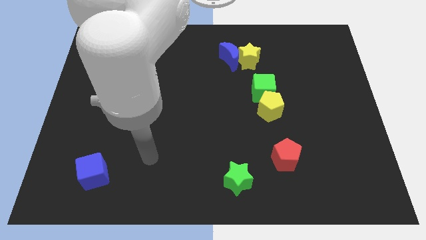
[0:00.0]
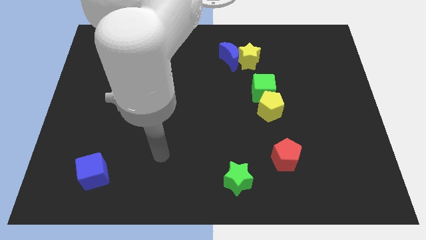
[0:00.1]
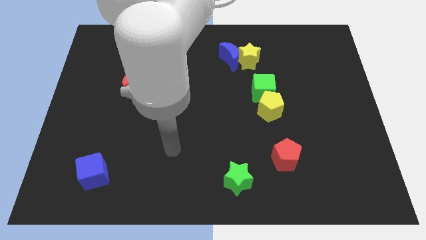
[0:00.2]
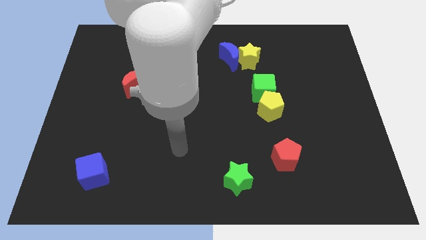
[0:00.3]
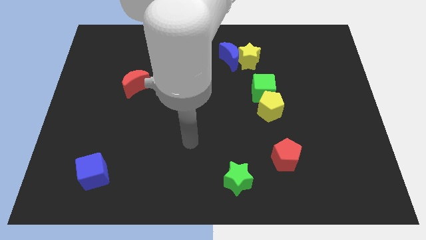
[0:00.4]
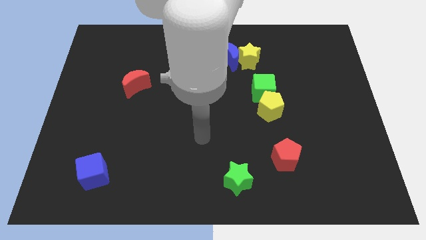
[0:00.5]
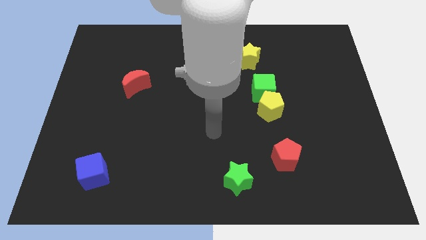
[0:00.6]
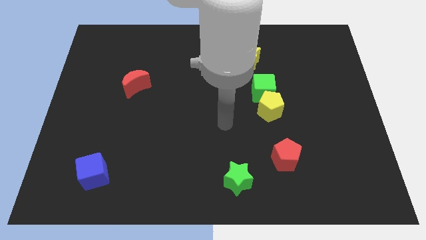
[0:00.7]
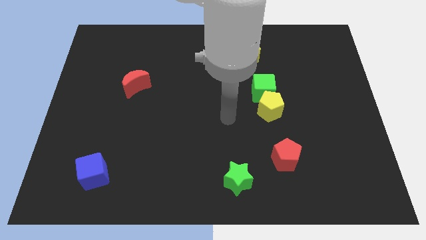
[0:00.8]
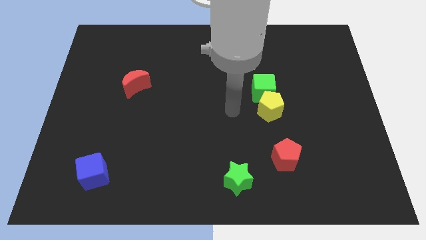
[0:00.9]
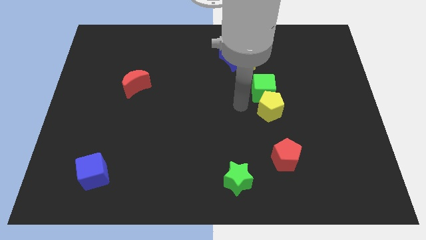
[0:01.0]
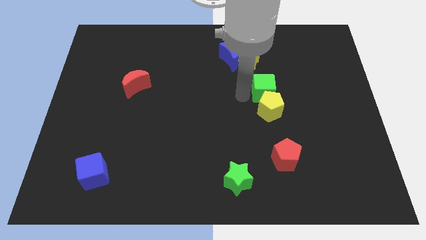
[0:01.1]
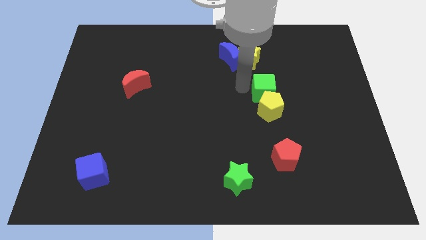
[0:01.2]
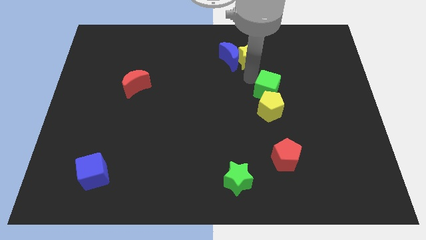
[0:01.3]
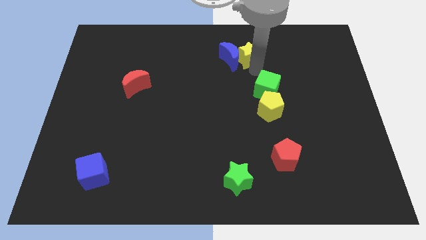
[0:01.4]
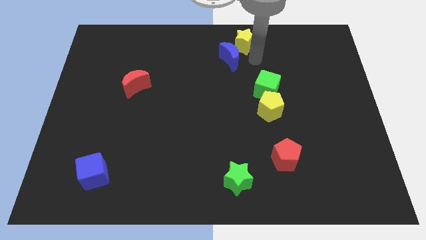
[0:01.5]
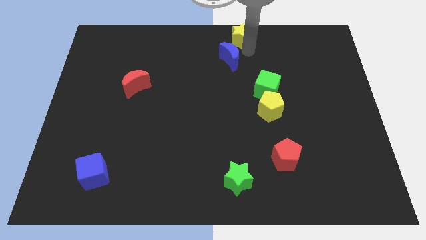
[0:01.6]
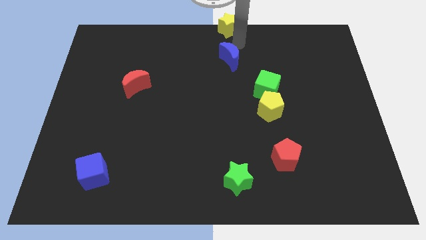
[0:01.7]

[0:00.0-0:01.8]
pull the blue moon apart from the yellow star

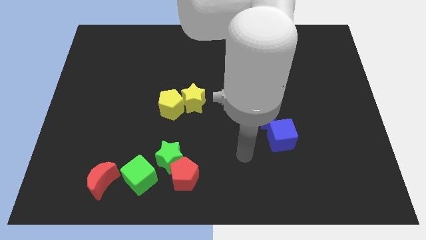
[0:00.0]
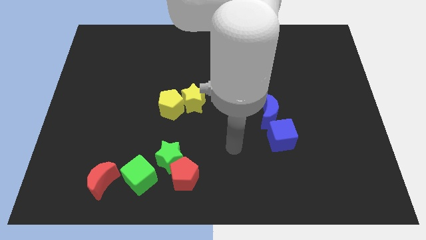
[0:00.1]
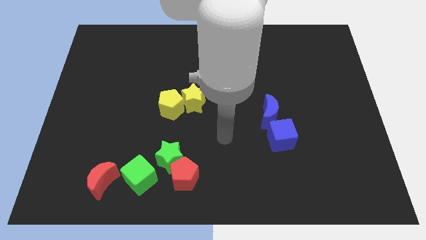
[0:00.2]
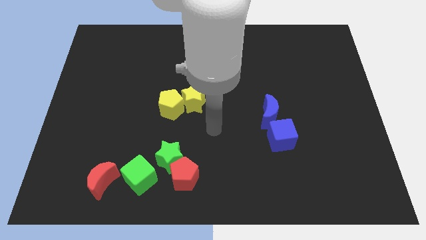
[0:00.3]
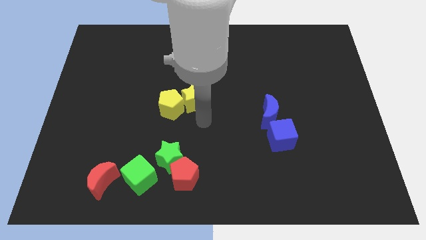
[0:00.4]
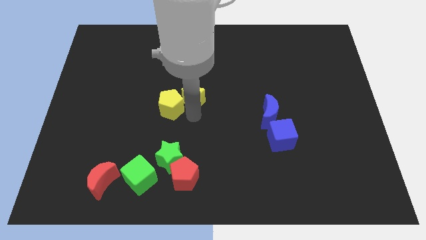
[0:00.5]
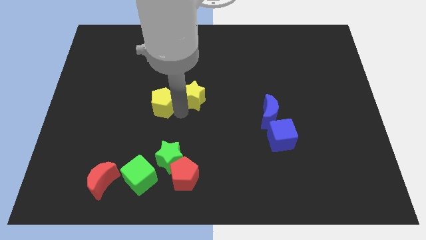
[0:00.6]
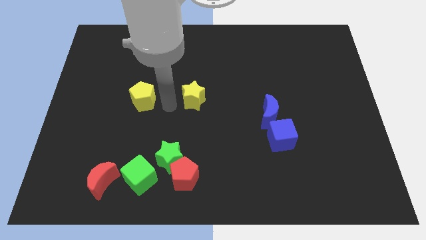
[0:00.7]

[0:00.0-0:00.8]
separate the yellow star from the yellow pentagon

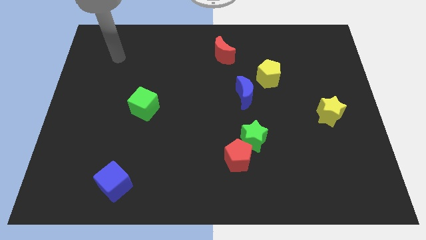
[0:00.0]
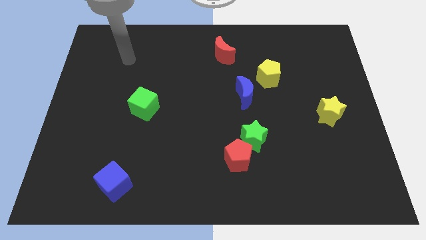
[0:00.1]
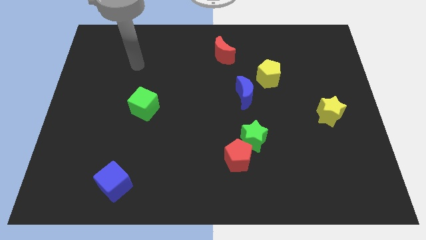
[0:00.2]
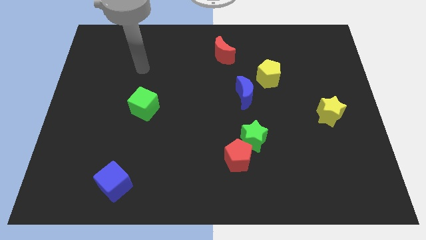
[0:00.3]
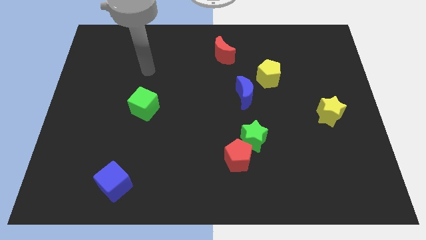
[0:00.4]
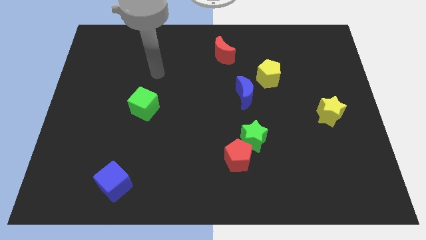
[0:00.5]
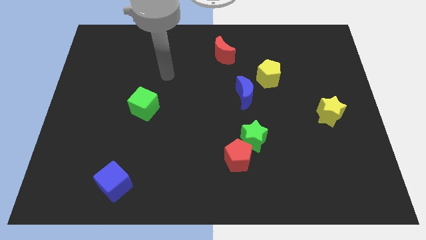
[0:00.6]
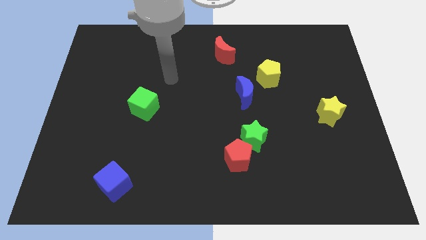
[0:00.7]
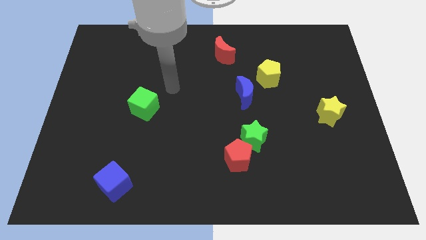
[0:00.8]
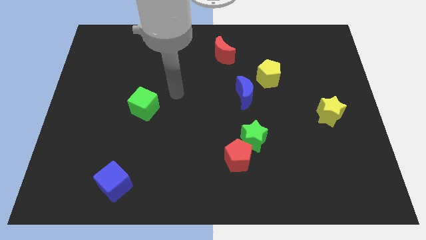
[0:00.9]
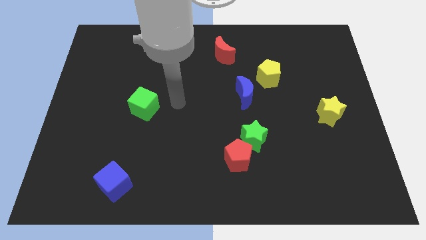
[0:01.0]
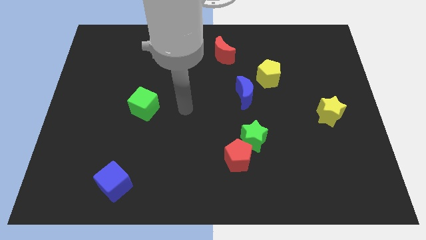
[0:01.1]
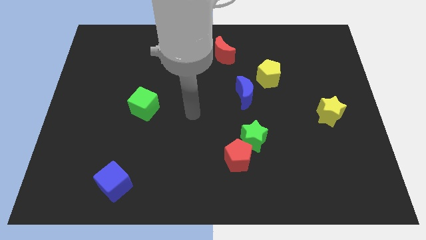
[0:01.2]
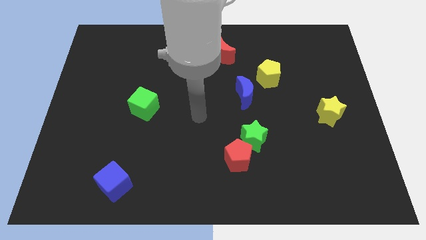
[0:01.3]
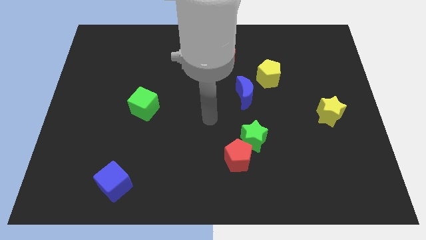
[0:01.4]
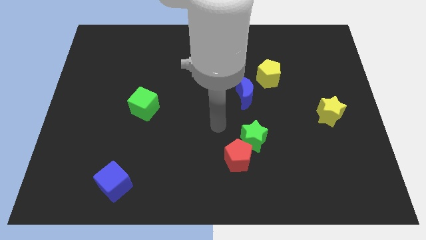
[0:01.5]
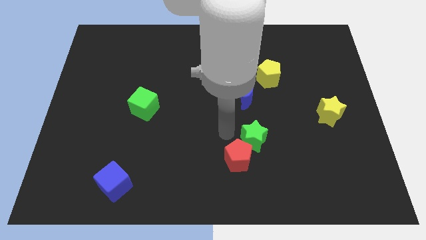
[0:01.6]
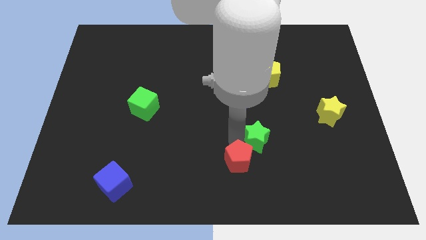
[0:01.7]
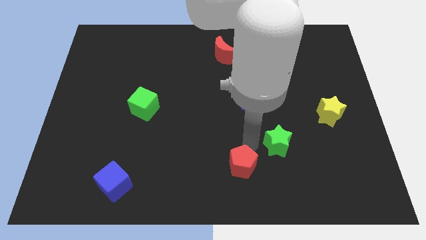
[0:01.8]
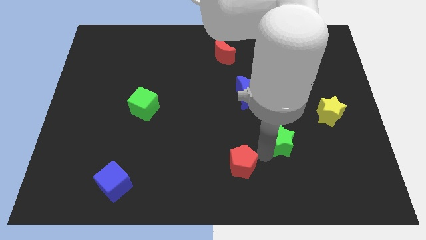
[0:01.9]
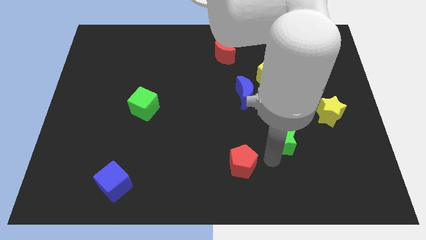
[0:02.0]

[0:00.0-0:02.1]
pull the red pentagon apart from the green star

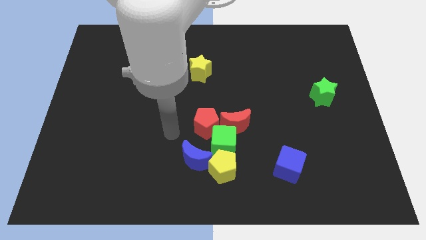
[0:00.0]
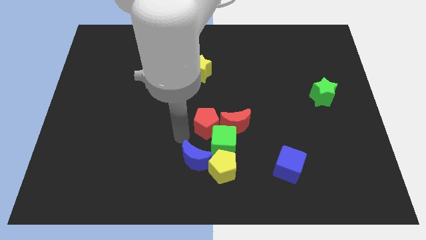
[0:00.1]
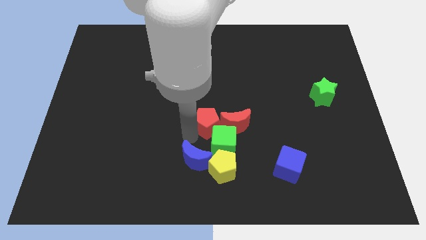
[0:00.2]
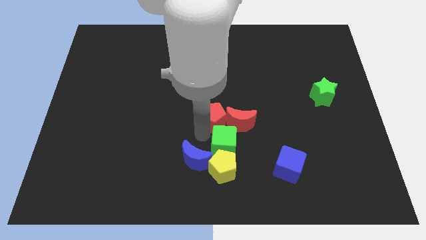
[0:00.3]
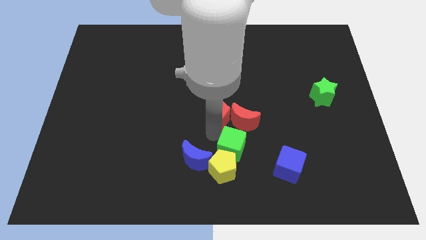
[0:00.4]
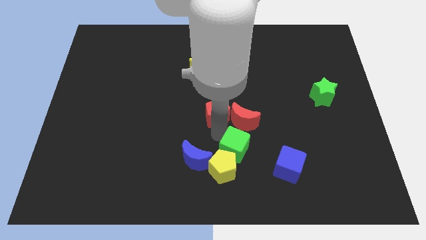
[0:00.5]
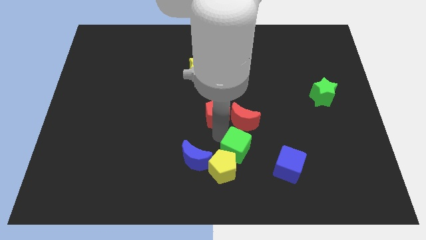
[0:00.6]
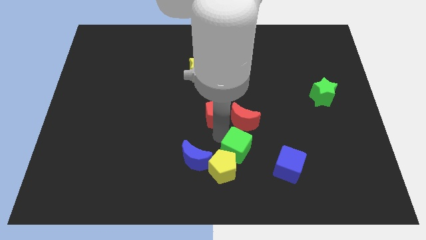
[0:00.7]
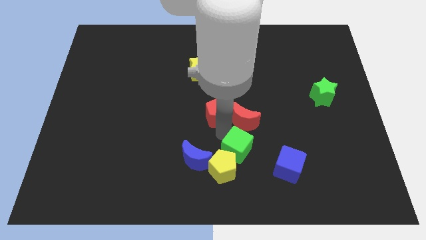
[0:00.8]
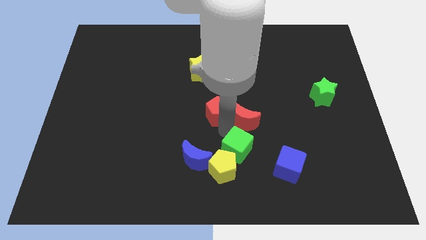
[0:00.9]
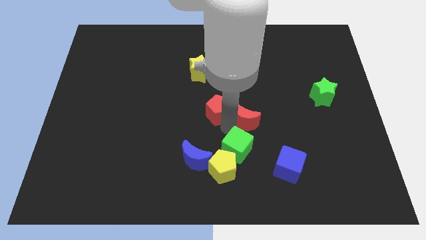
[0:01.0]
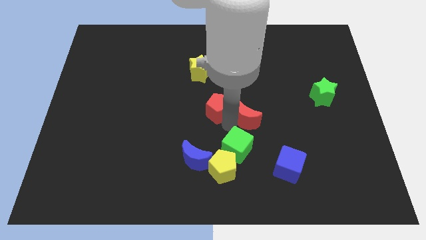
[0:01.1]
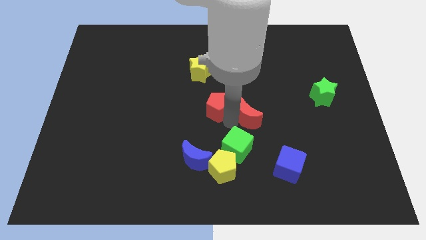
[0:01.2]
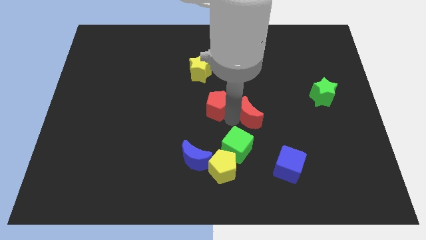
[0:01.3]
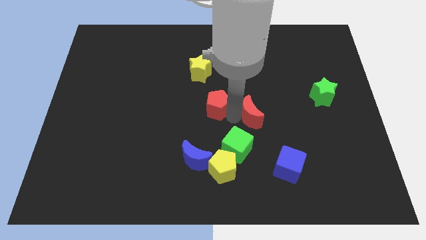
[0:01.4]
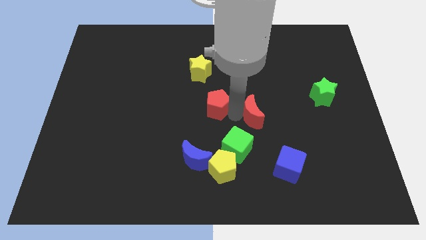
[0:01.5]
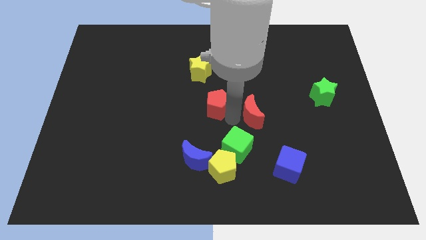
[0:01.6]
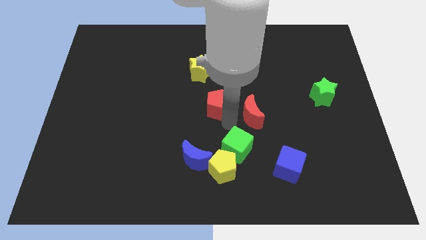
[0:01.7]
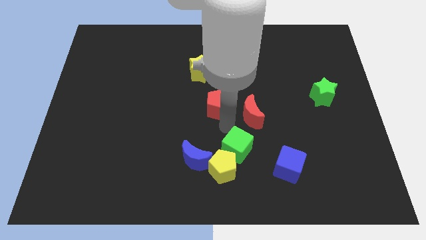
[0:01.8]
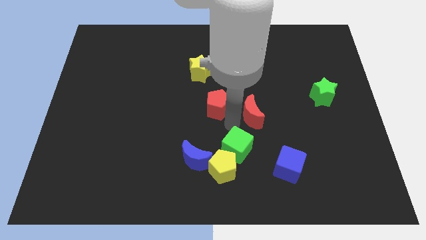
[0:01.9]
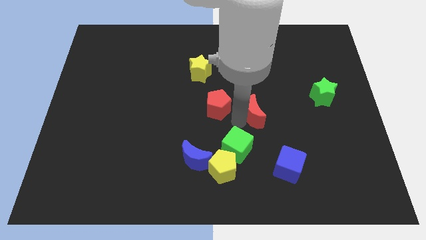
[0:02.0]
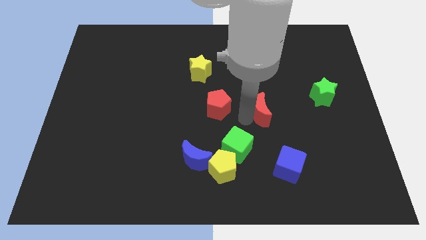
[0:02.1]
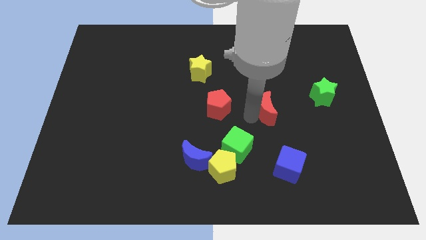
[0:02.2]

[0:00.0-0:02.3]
separate the red moon from the green cube and red pentagon

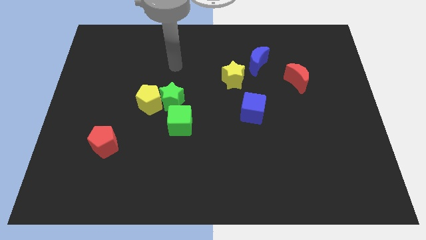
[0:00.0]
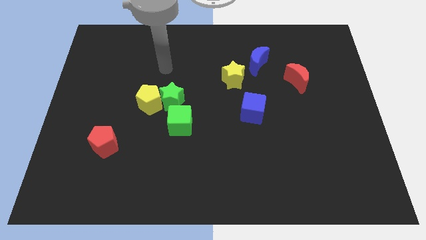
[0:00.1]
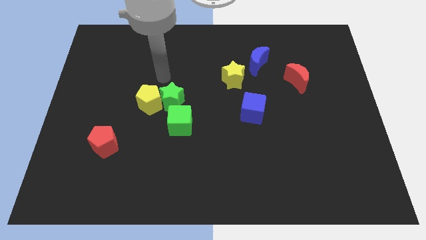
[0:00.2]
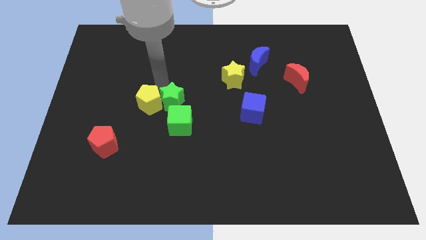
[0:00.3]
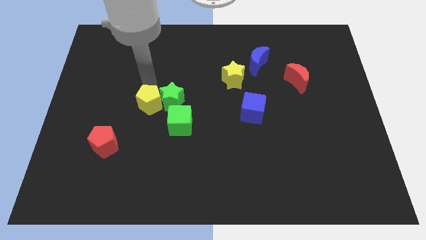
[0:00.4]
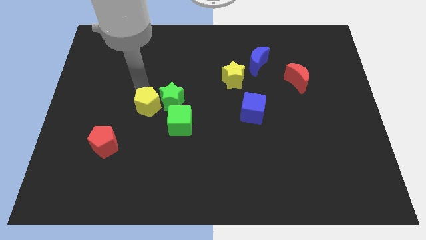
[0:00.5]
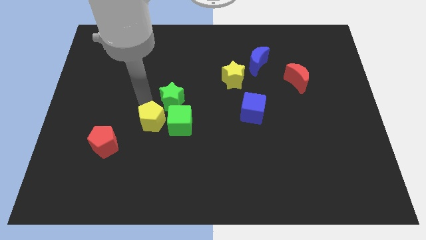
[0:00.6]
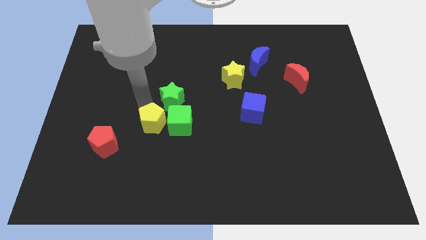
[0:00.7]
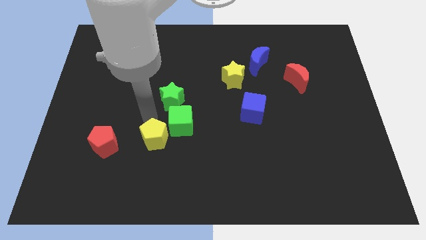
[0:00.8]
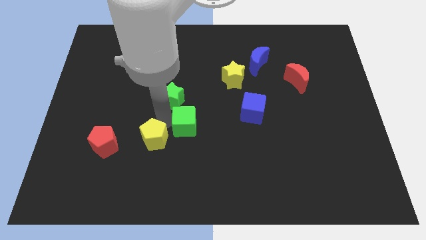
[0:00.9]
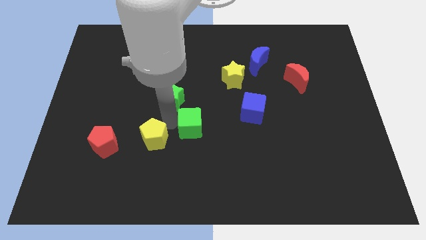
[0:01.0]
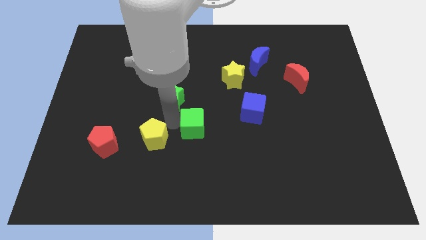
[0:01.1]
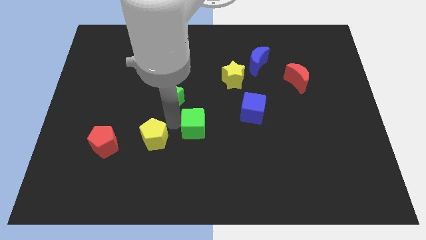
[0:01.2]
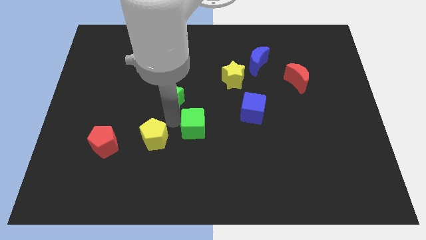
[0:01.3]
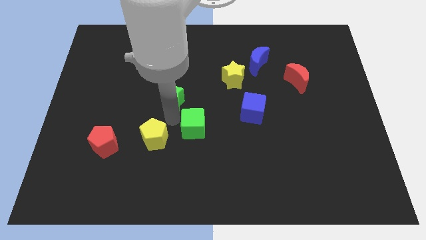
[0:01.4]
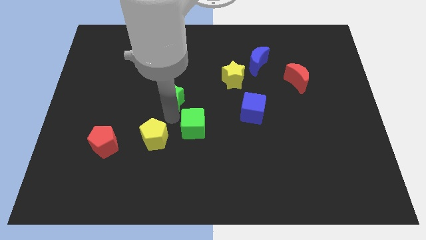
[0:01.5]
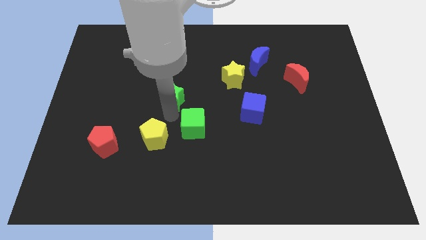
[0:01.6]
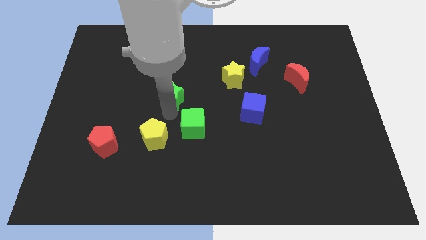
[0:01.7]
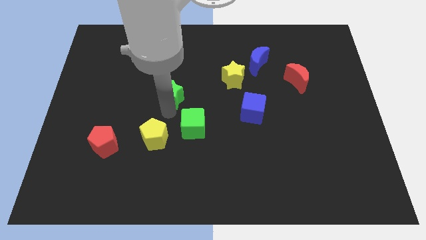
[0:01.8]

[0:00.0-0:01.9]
separate the green star from the yellow pentagon and green cube

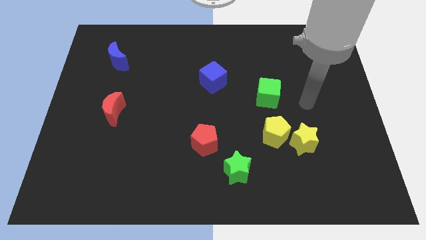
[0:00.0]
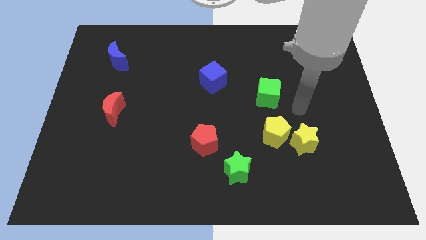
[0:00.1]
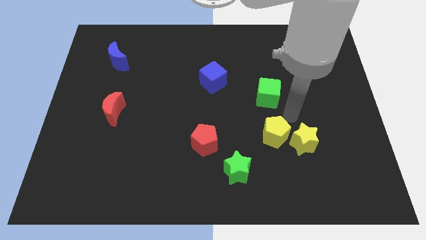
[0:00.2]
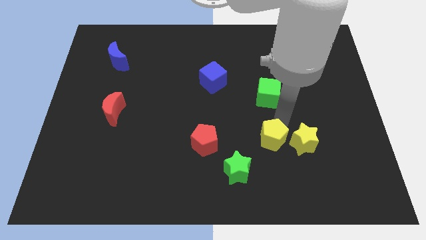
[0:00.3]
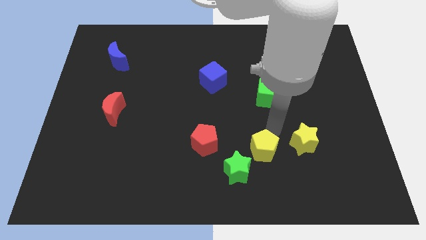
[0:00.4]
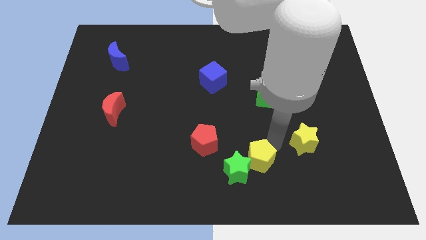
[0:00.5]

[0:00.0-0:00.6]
move the yellow star away from the yellow pentagon
